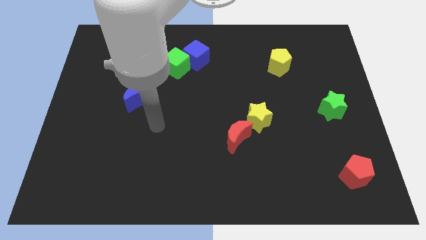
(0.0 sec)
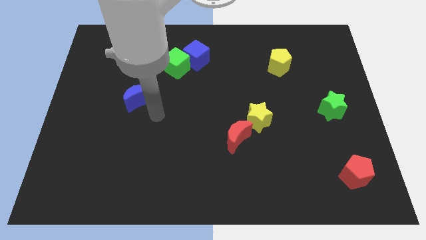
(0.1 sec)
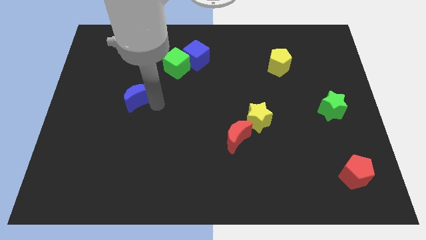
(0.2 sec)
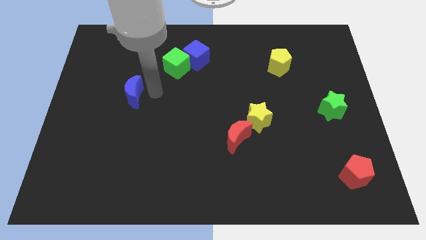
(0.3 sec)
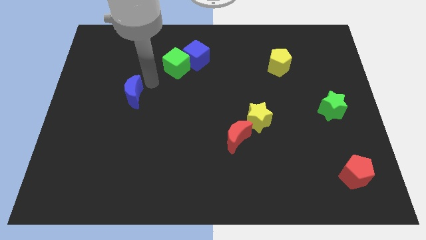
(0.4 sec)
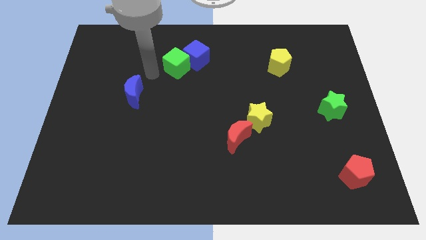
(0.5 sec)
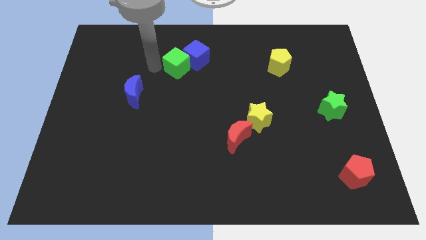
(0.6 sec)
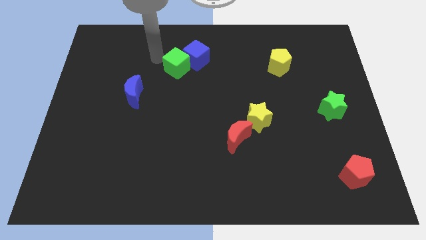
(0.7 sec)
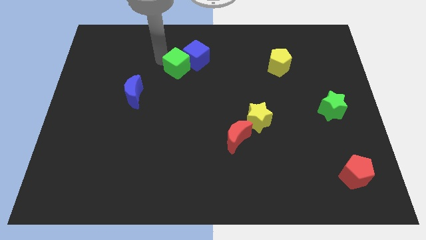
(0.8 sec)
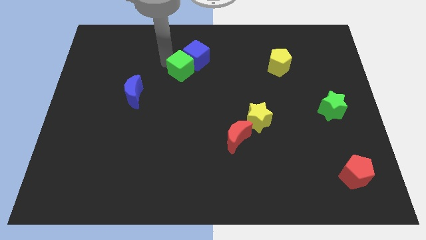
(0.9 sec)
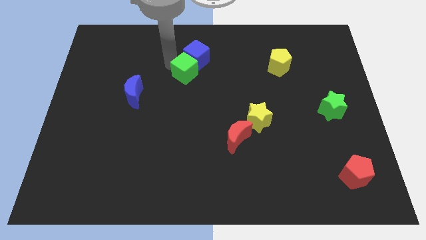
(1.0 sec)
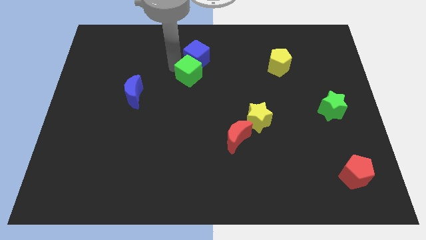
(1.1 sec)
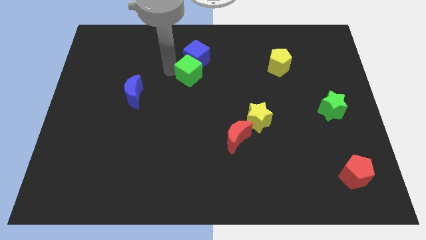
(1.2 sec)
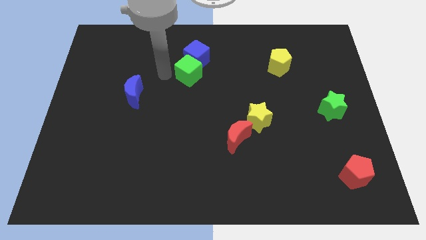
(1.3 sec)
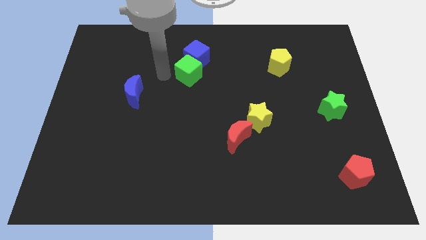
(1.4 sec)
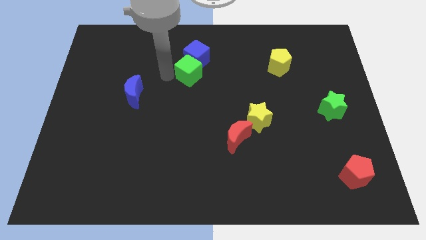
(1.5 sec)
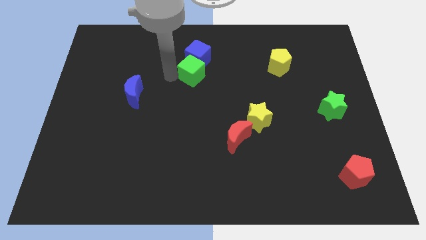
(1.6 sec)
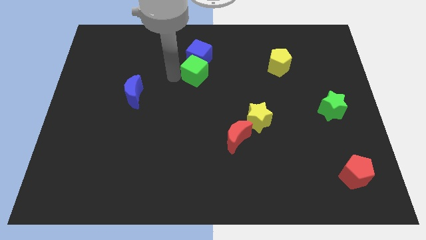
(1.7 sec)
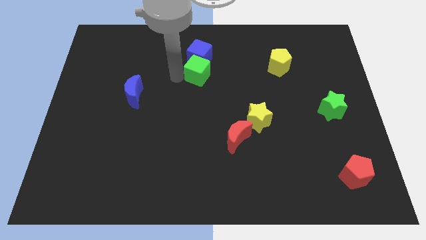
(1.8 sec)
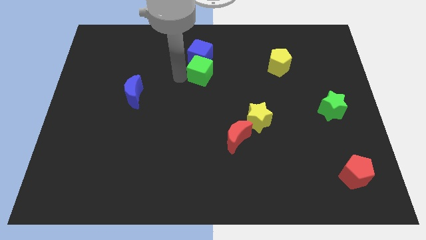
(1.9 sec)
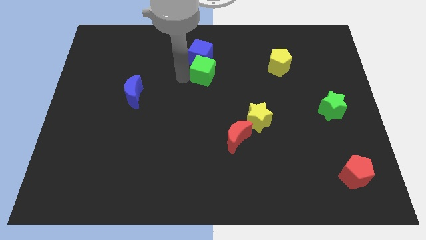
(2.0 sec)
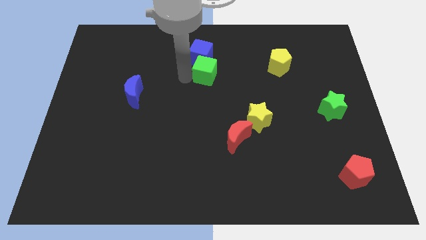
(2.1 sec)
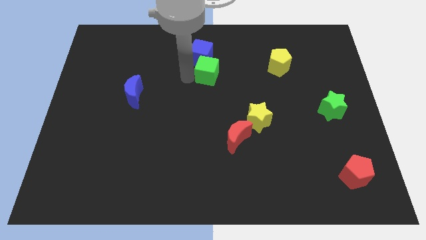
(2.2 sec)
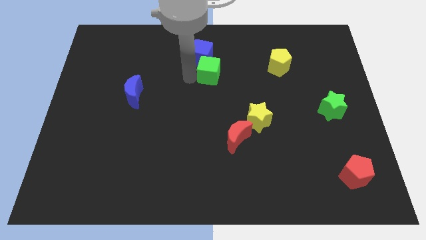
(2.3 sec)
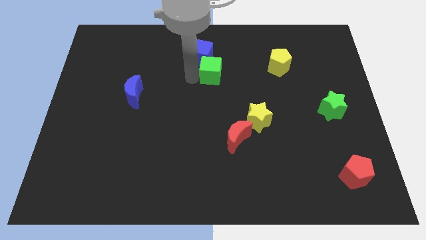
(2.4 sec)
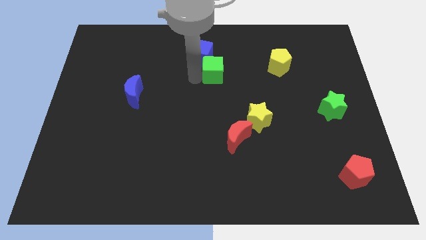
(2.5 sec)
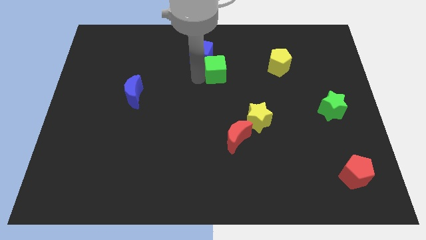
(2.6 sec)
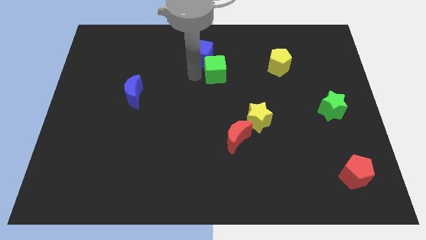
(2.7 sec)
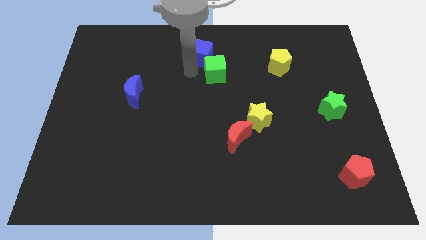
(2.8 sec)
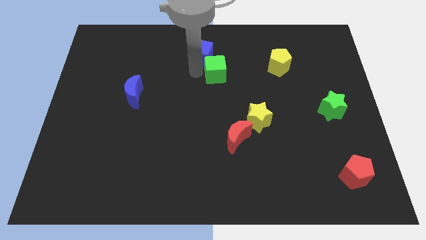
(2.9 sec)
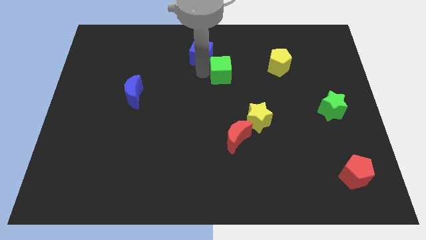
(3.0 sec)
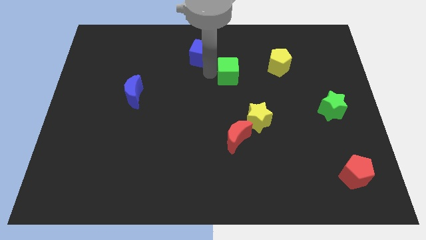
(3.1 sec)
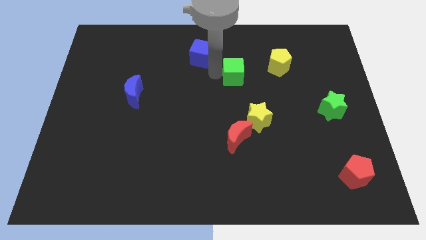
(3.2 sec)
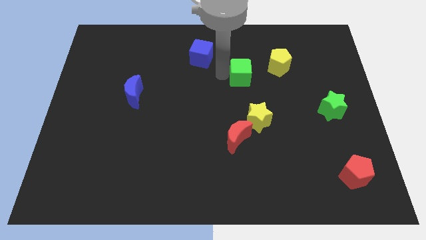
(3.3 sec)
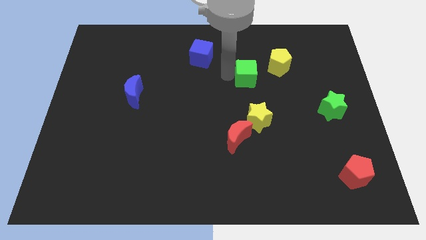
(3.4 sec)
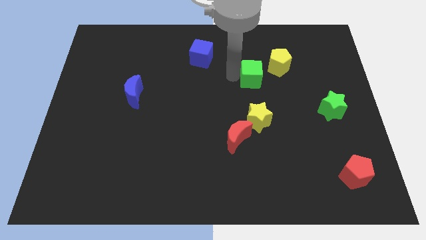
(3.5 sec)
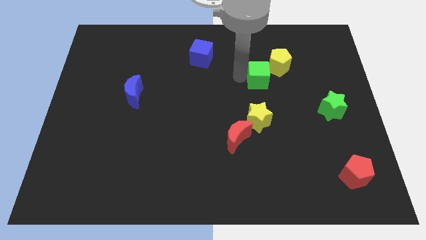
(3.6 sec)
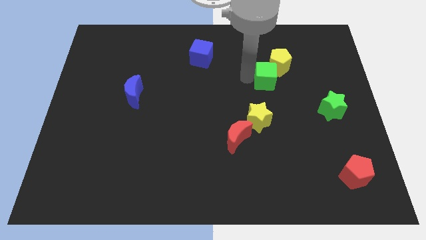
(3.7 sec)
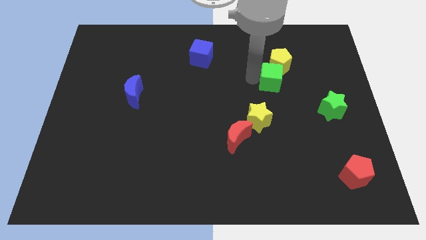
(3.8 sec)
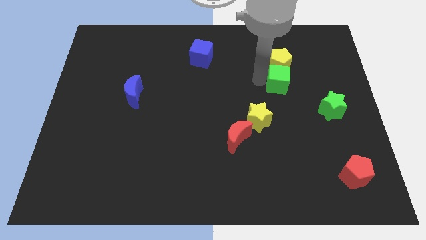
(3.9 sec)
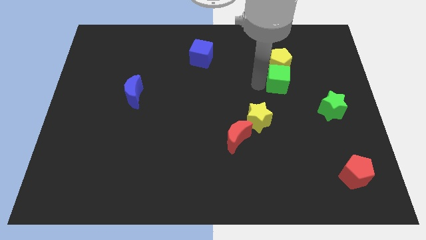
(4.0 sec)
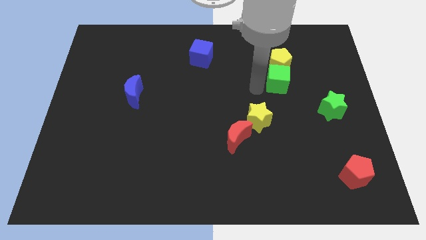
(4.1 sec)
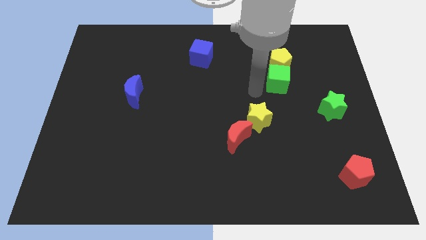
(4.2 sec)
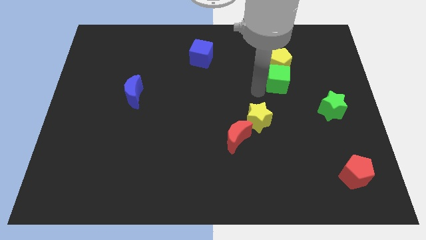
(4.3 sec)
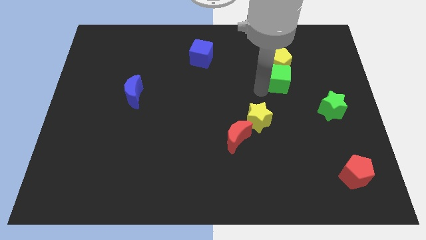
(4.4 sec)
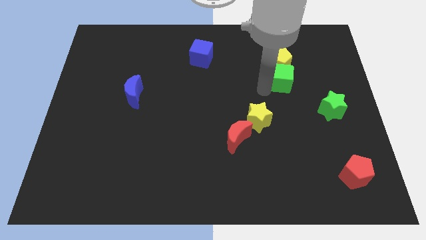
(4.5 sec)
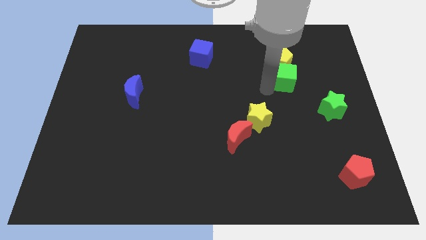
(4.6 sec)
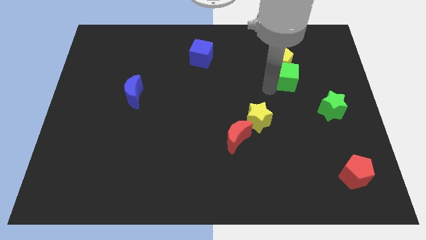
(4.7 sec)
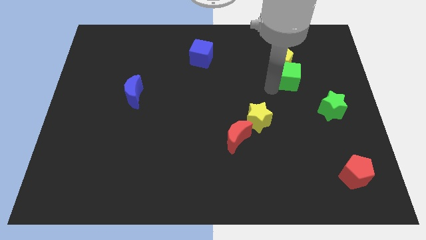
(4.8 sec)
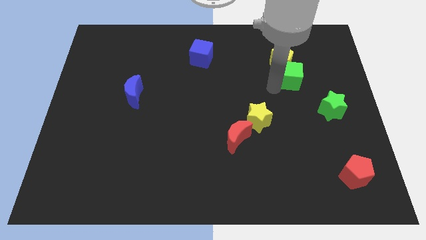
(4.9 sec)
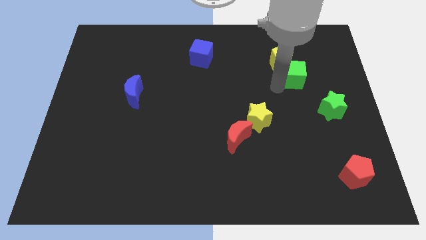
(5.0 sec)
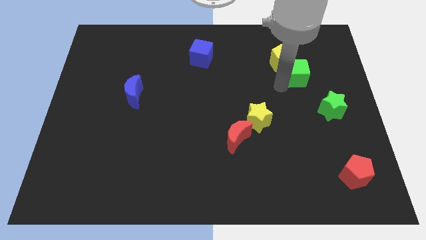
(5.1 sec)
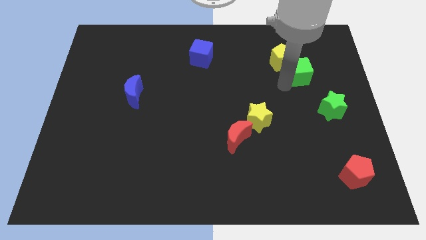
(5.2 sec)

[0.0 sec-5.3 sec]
push the green cube just right of the yellow pentagon

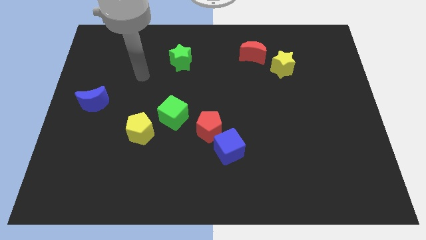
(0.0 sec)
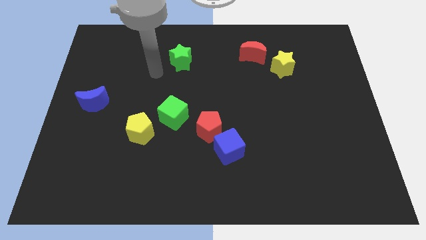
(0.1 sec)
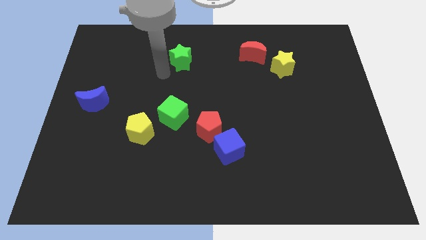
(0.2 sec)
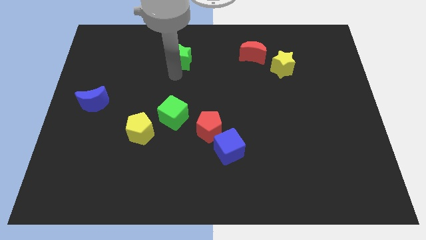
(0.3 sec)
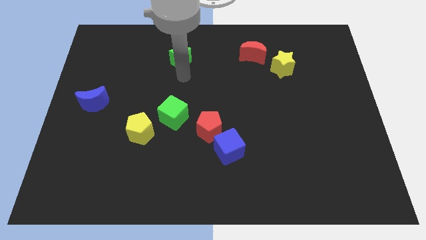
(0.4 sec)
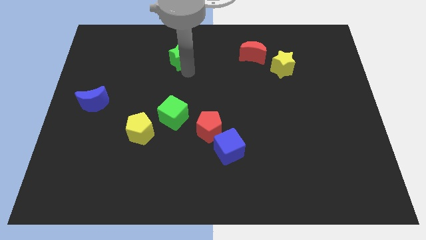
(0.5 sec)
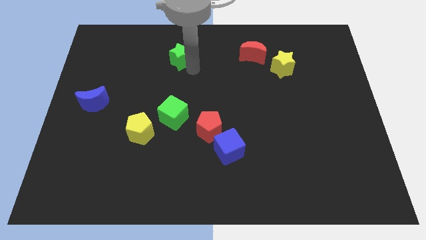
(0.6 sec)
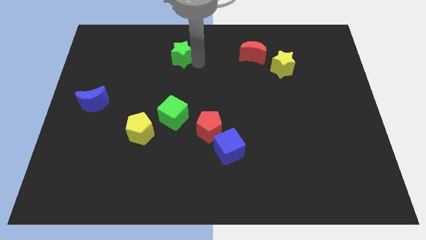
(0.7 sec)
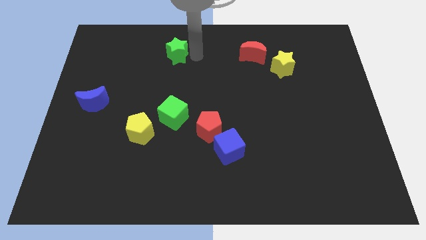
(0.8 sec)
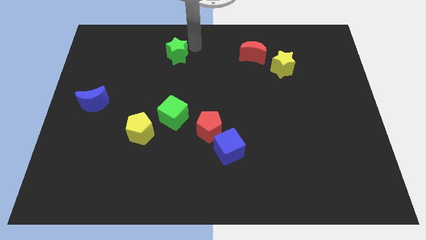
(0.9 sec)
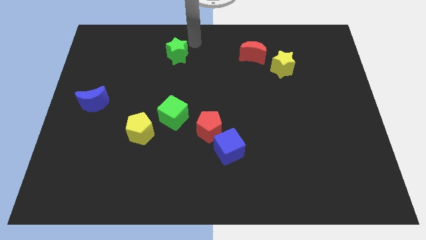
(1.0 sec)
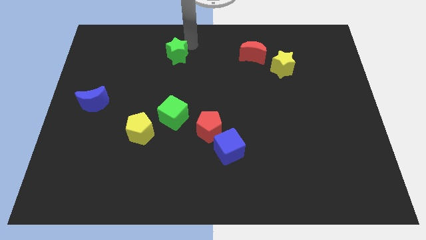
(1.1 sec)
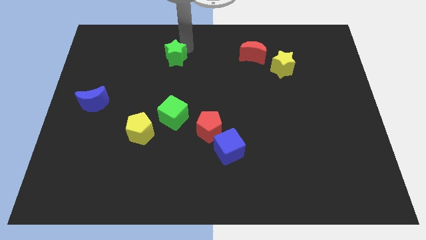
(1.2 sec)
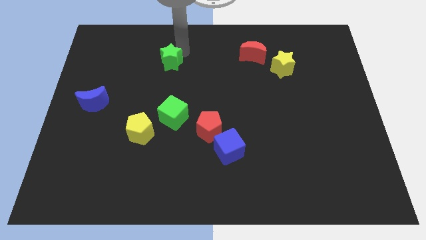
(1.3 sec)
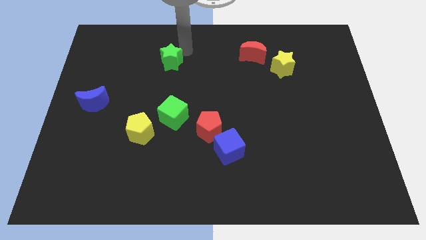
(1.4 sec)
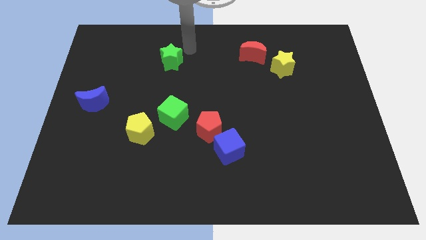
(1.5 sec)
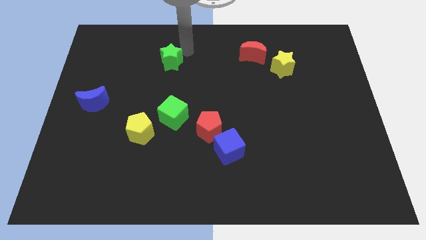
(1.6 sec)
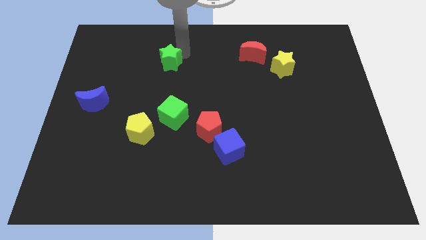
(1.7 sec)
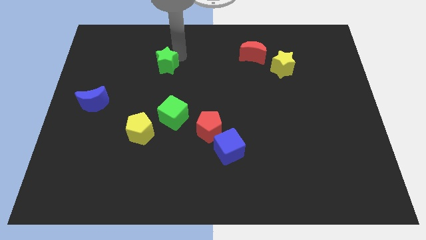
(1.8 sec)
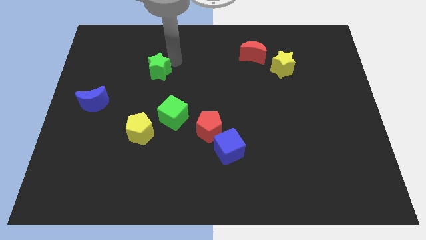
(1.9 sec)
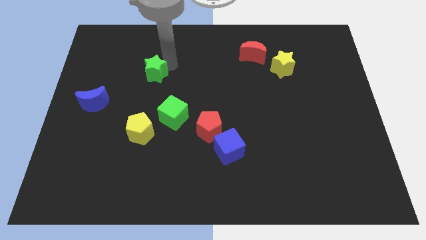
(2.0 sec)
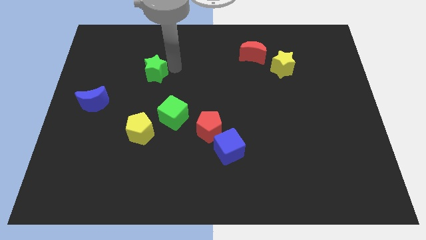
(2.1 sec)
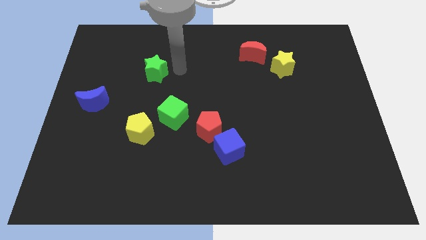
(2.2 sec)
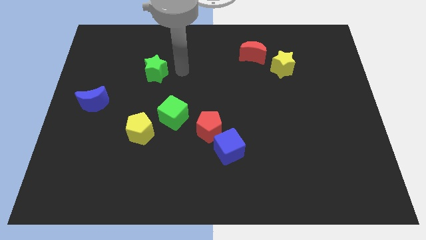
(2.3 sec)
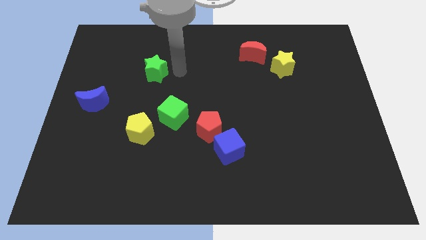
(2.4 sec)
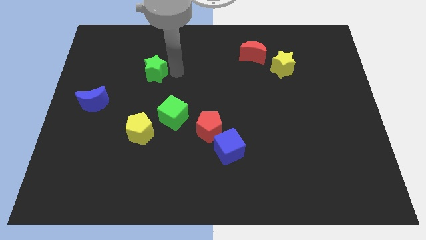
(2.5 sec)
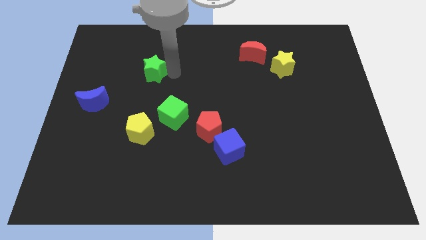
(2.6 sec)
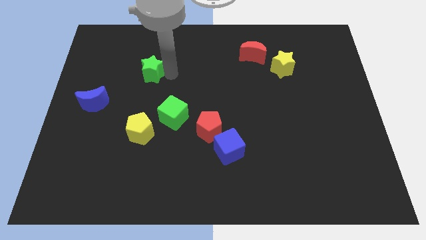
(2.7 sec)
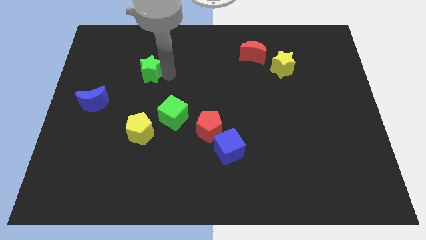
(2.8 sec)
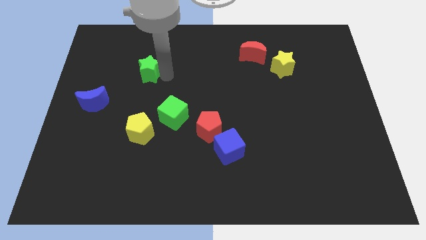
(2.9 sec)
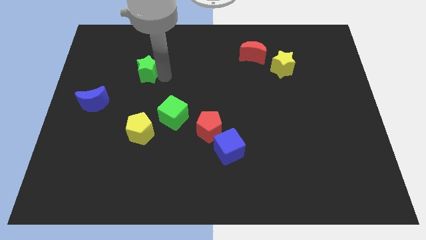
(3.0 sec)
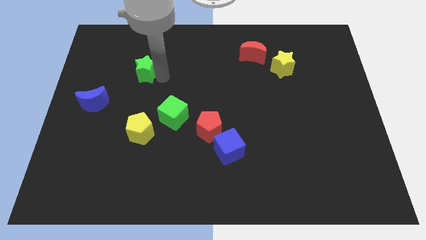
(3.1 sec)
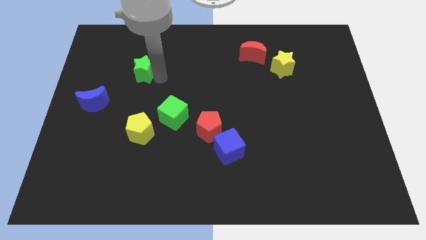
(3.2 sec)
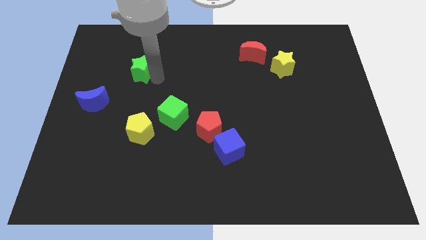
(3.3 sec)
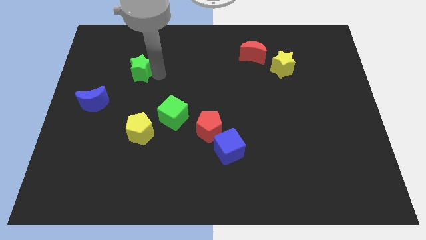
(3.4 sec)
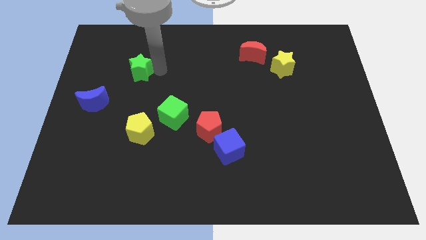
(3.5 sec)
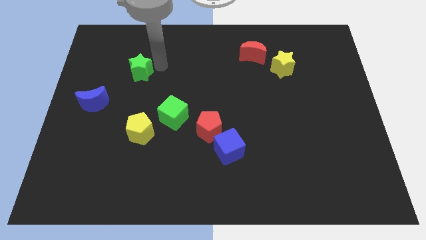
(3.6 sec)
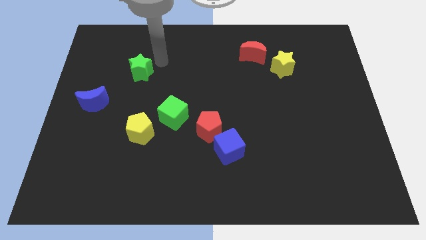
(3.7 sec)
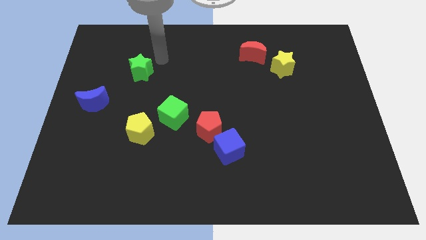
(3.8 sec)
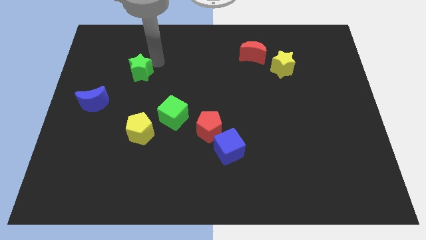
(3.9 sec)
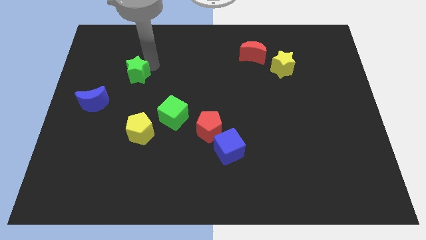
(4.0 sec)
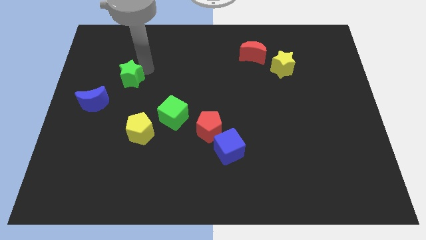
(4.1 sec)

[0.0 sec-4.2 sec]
push the green star to the top right side of the blue moon
